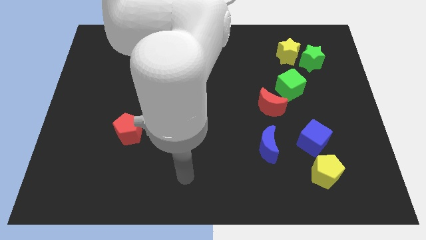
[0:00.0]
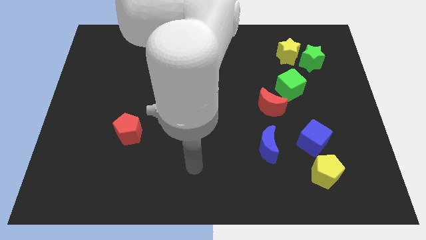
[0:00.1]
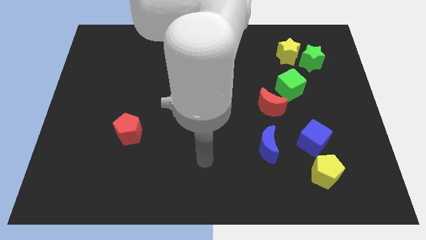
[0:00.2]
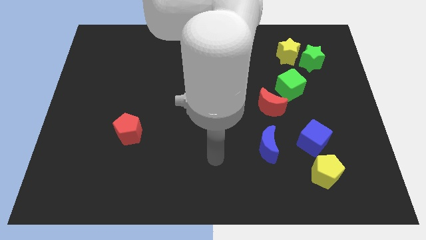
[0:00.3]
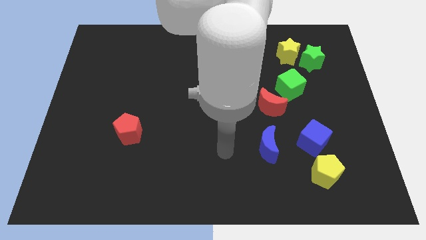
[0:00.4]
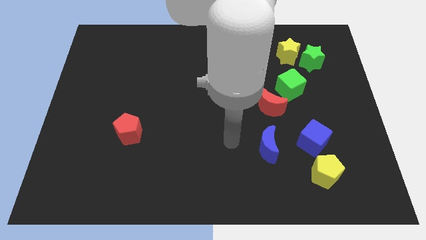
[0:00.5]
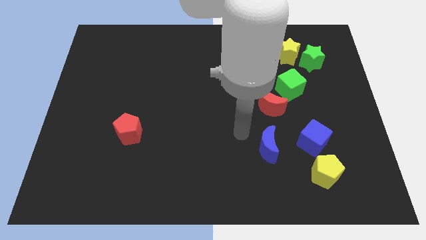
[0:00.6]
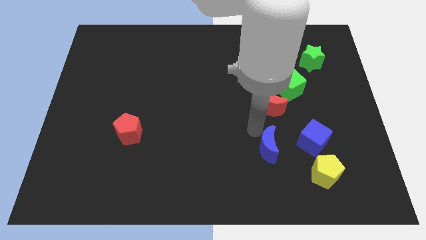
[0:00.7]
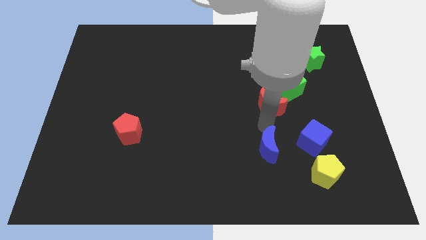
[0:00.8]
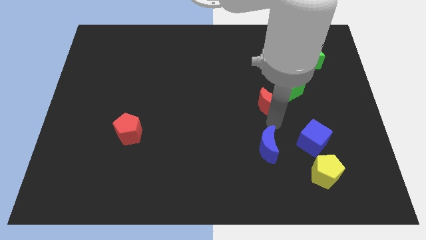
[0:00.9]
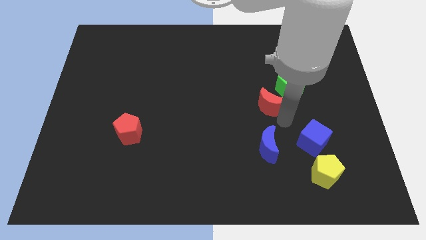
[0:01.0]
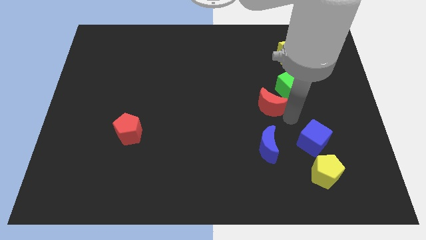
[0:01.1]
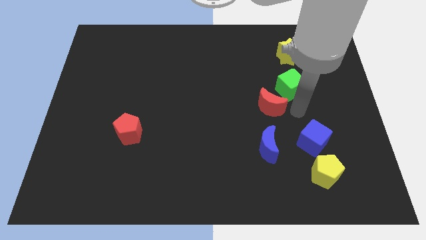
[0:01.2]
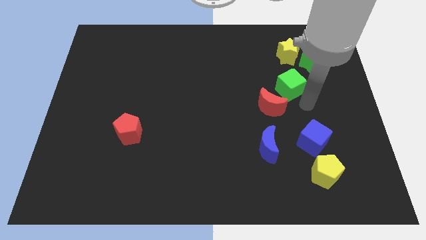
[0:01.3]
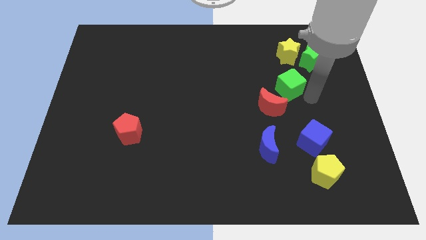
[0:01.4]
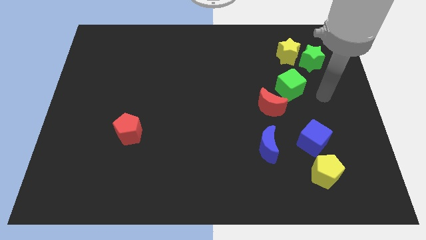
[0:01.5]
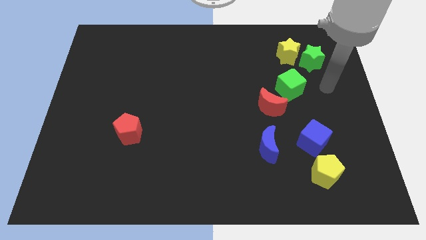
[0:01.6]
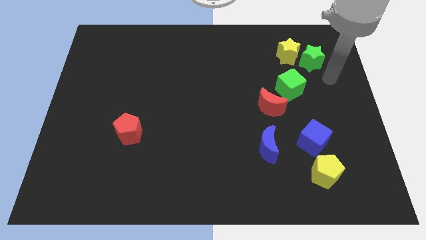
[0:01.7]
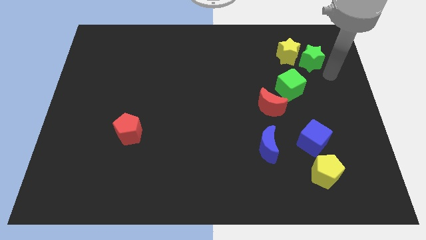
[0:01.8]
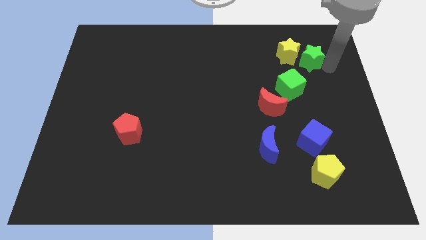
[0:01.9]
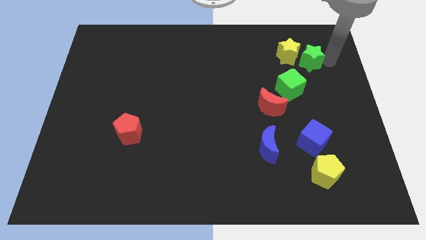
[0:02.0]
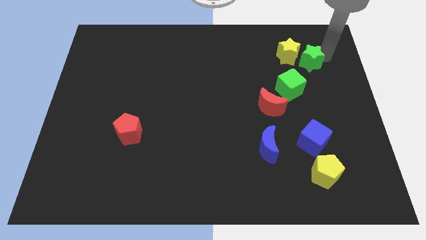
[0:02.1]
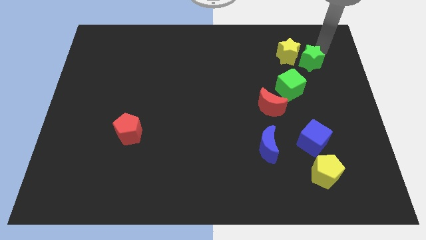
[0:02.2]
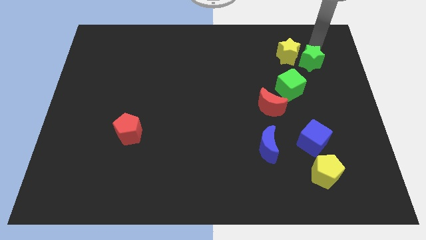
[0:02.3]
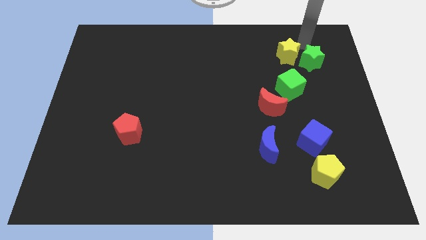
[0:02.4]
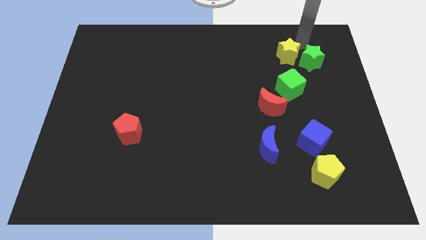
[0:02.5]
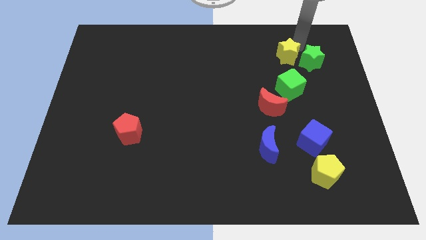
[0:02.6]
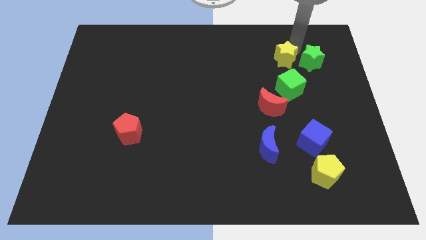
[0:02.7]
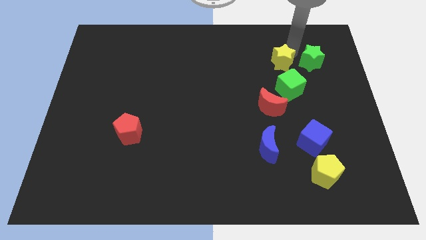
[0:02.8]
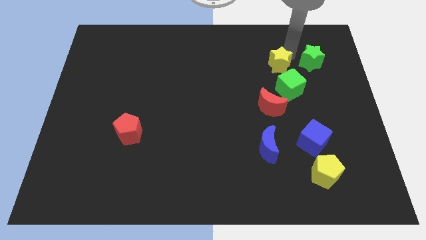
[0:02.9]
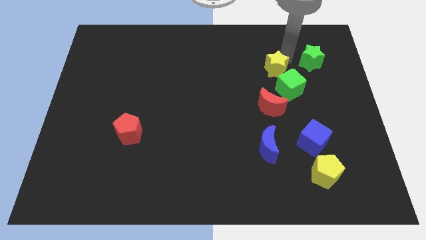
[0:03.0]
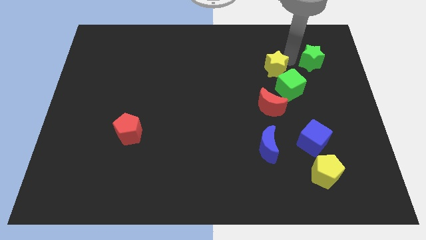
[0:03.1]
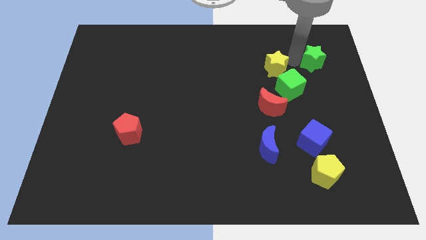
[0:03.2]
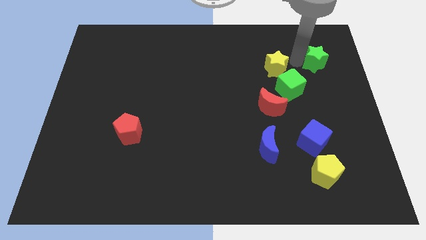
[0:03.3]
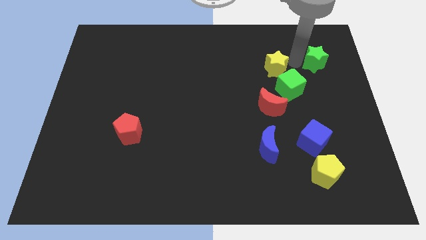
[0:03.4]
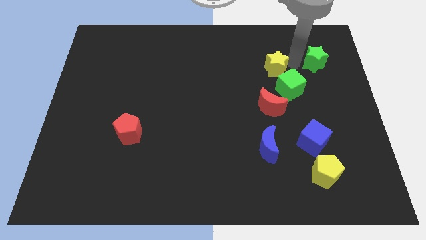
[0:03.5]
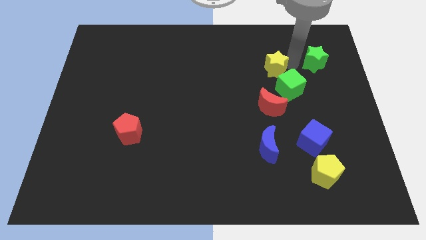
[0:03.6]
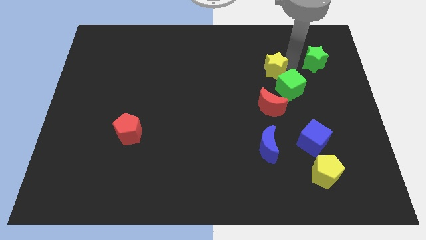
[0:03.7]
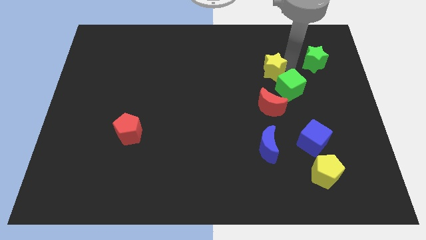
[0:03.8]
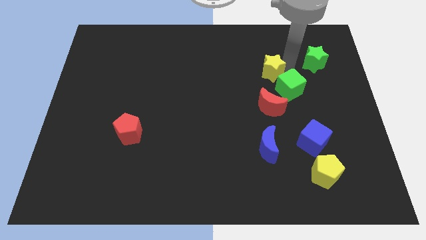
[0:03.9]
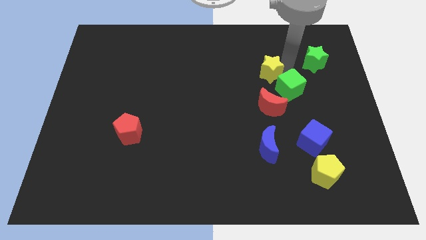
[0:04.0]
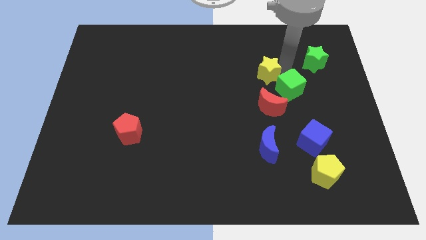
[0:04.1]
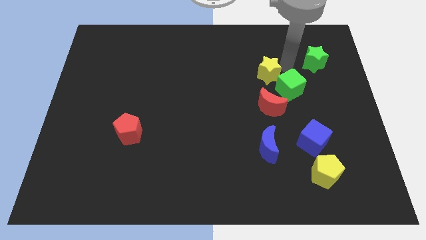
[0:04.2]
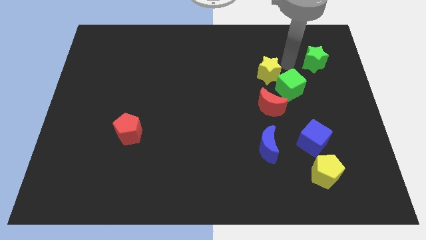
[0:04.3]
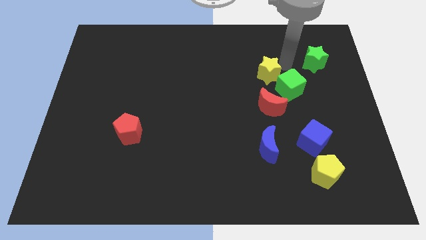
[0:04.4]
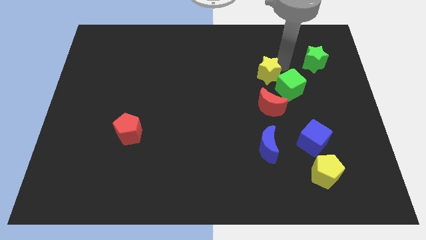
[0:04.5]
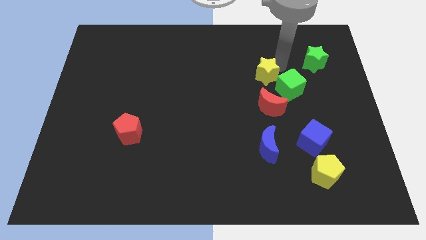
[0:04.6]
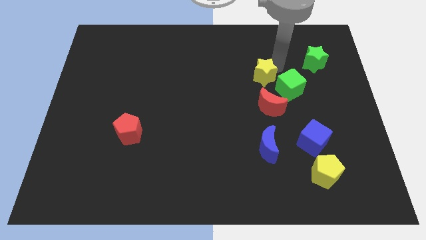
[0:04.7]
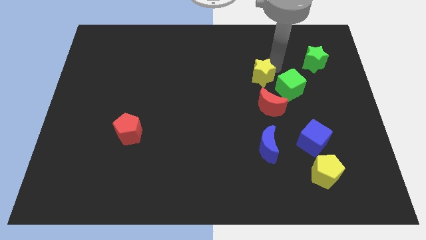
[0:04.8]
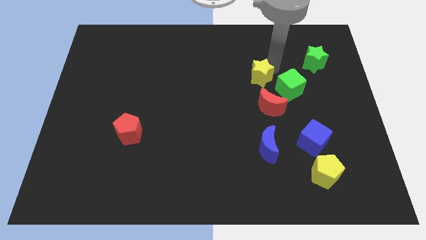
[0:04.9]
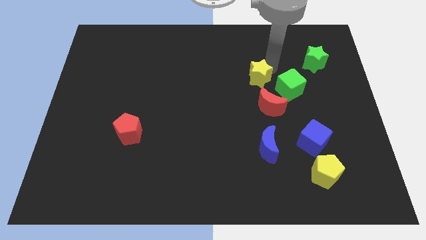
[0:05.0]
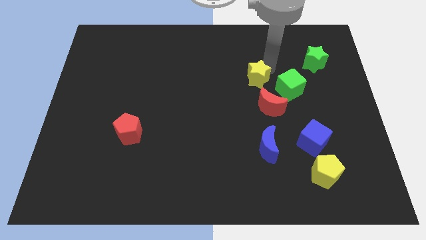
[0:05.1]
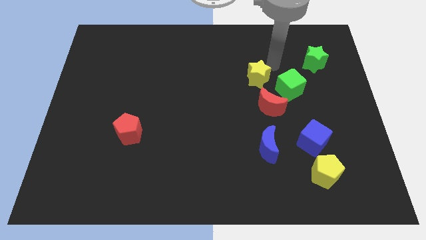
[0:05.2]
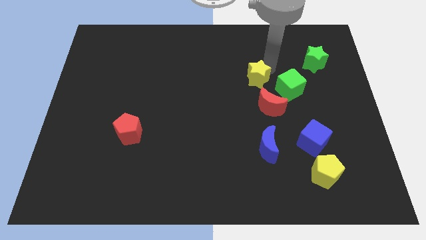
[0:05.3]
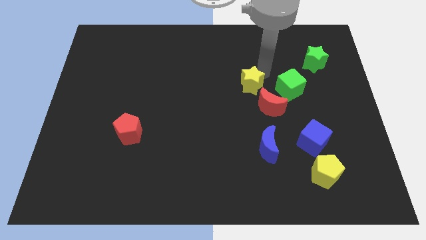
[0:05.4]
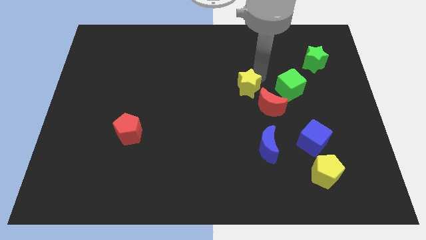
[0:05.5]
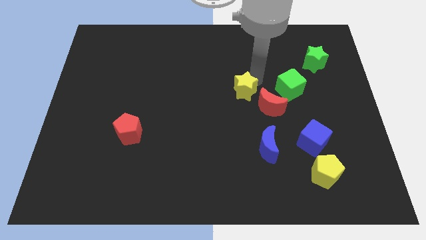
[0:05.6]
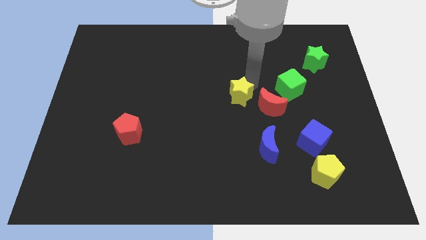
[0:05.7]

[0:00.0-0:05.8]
slide the yellow star just left of the red moon
